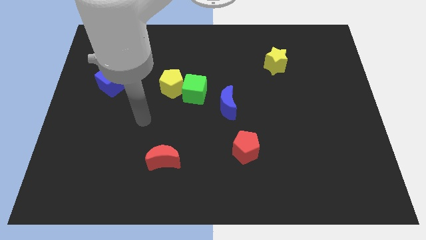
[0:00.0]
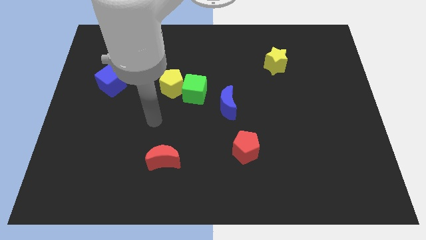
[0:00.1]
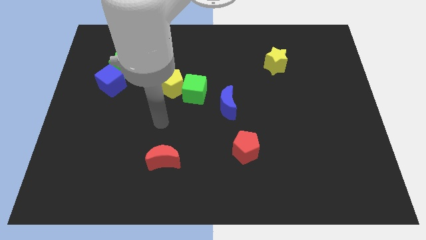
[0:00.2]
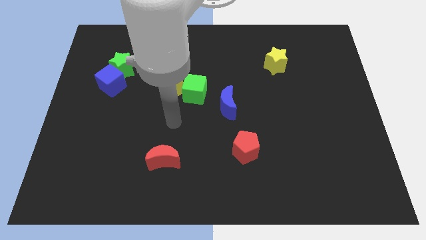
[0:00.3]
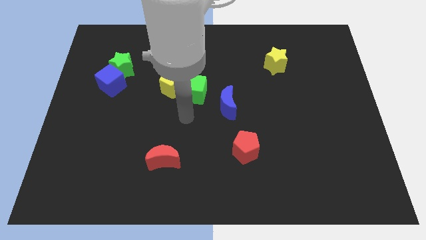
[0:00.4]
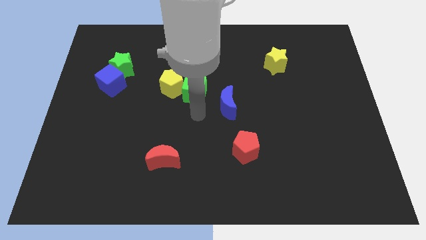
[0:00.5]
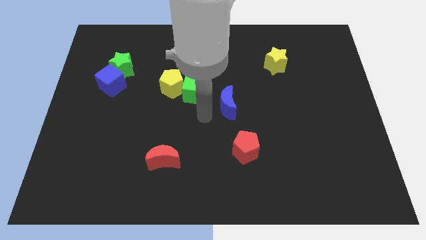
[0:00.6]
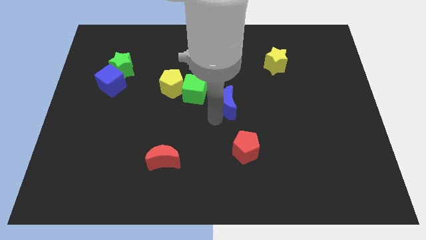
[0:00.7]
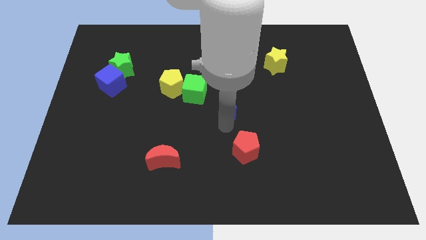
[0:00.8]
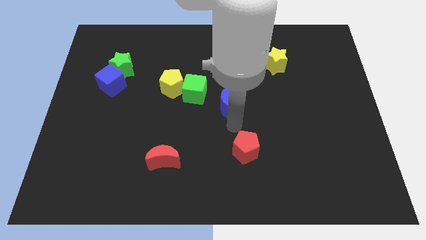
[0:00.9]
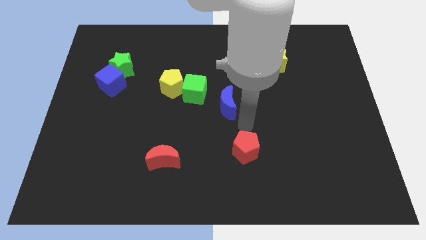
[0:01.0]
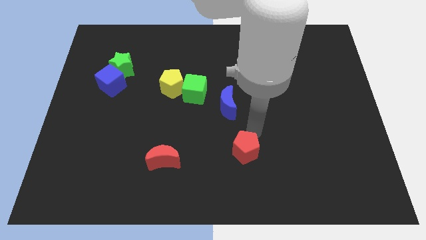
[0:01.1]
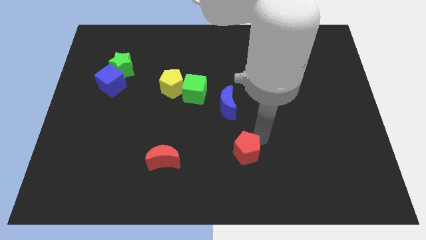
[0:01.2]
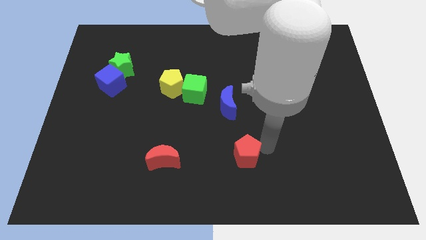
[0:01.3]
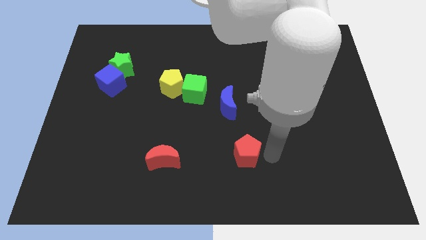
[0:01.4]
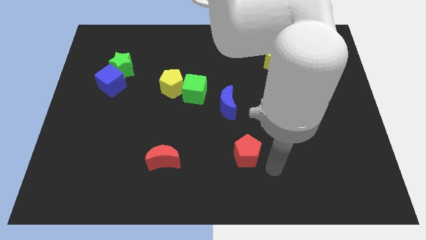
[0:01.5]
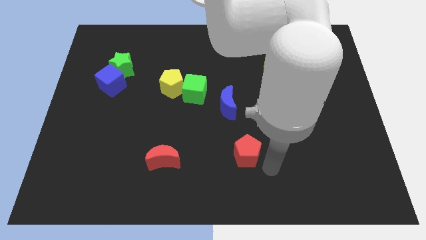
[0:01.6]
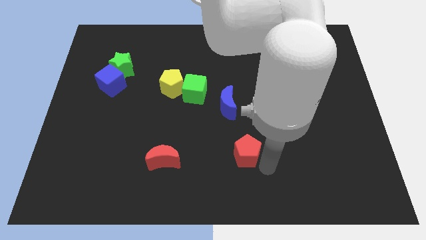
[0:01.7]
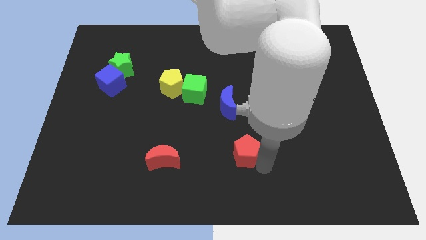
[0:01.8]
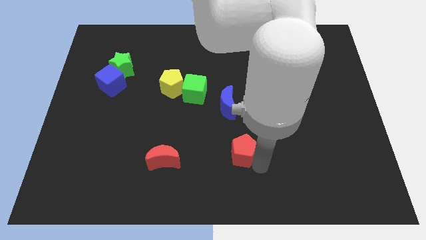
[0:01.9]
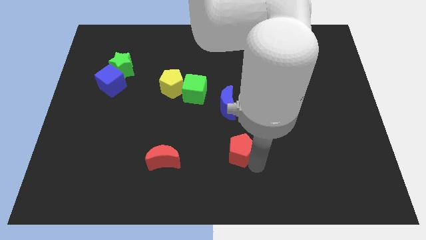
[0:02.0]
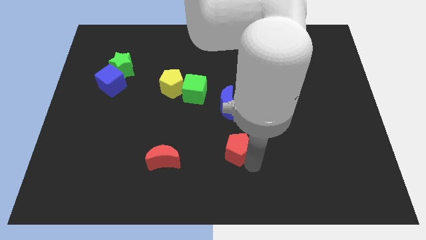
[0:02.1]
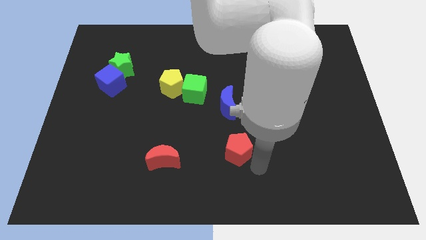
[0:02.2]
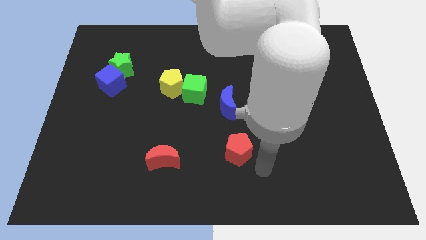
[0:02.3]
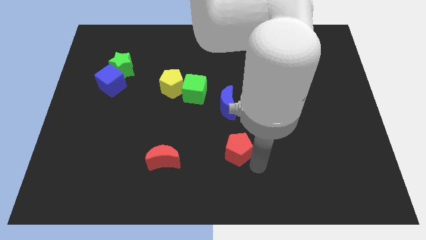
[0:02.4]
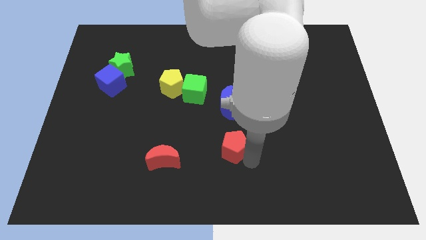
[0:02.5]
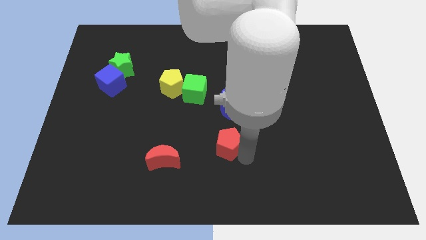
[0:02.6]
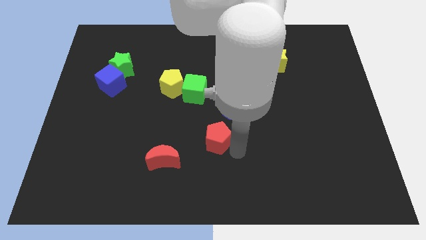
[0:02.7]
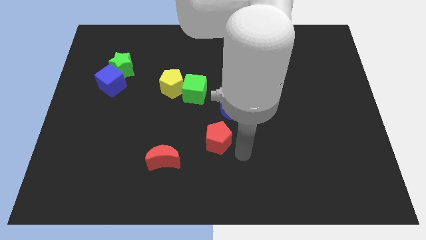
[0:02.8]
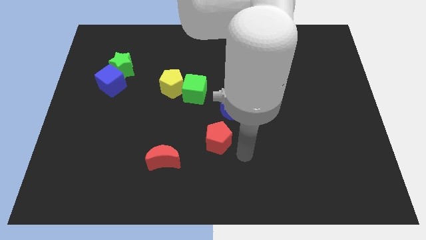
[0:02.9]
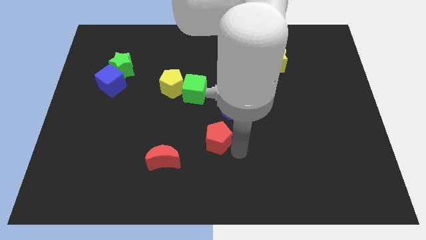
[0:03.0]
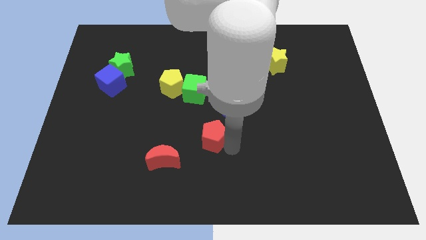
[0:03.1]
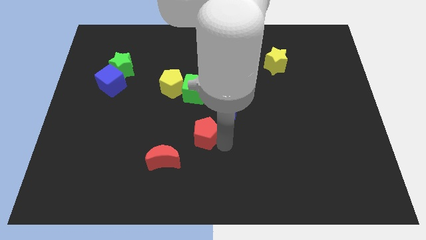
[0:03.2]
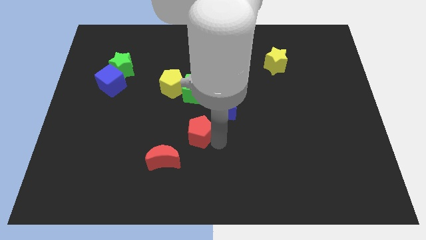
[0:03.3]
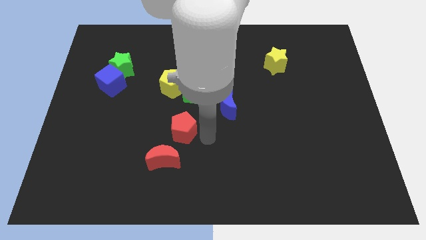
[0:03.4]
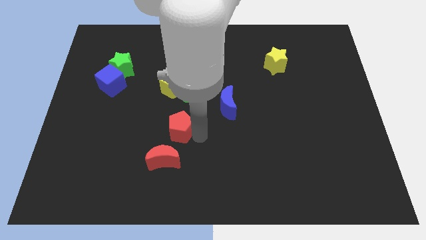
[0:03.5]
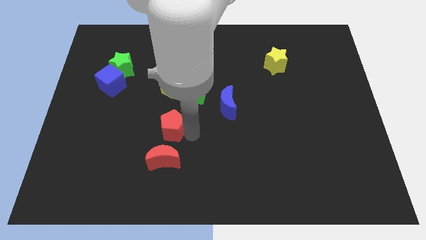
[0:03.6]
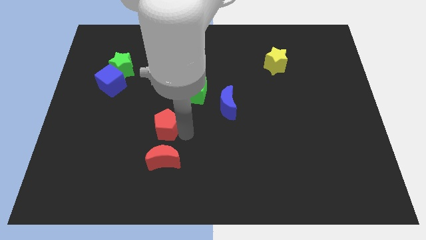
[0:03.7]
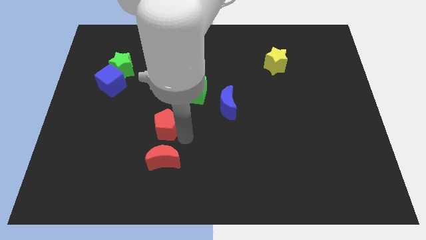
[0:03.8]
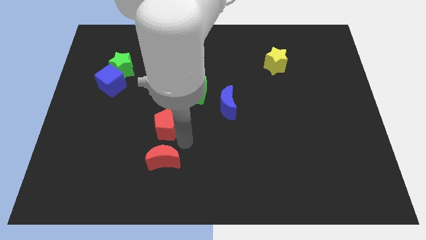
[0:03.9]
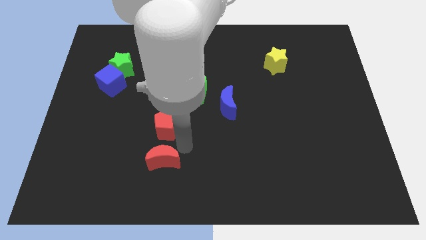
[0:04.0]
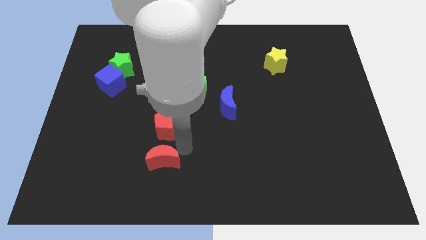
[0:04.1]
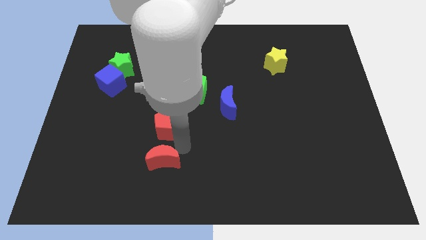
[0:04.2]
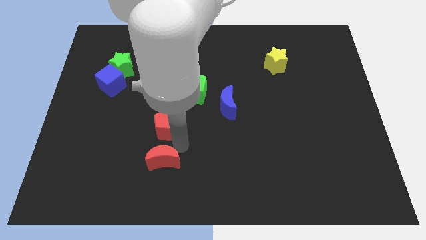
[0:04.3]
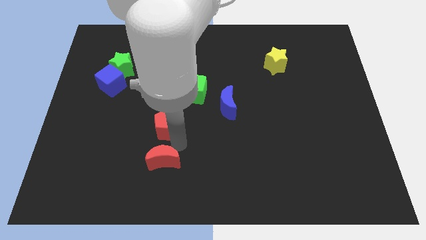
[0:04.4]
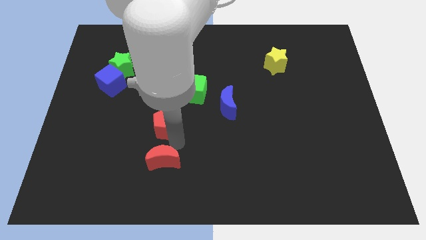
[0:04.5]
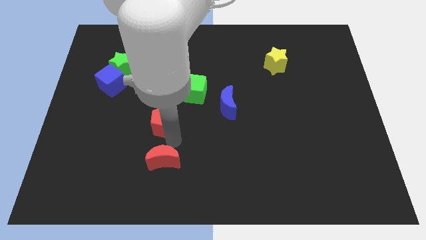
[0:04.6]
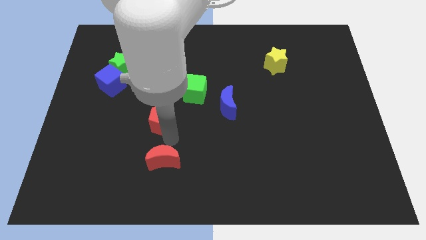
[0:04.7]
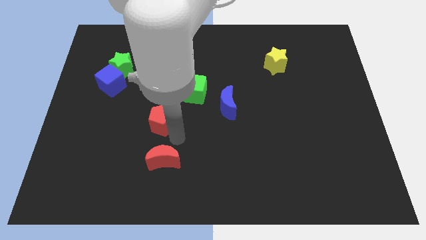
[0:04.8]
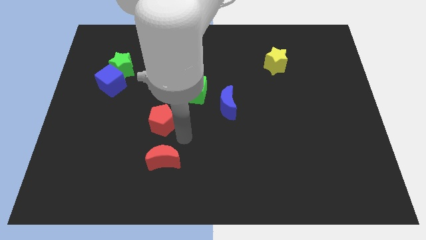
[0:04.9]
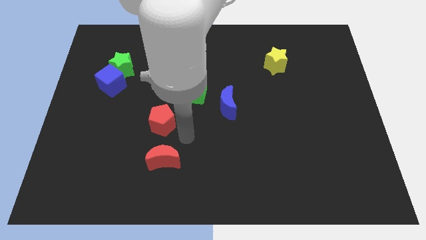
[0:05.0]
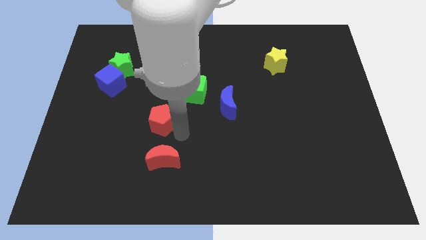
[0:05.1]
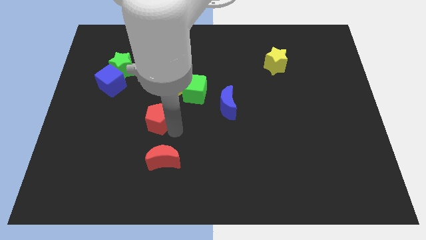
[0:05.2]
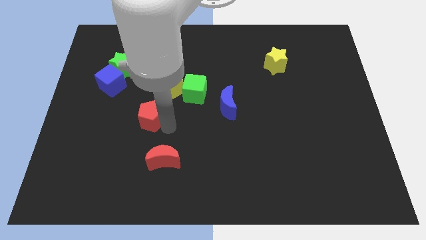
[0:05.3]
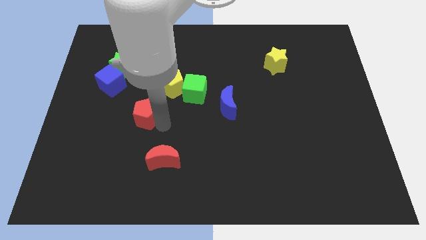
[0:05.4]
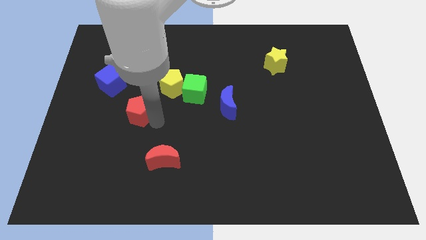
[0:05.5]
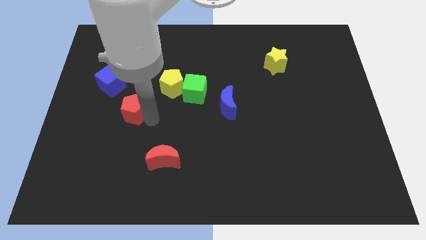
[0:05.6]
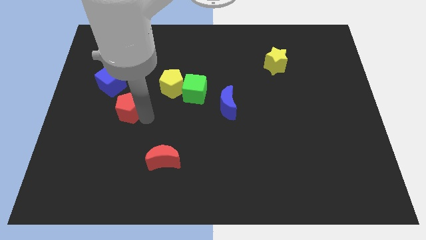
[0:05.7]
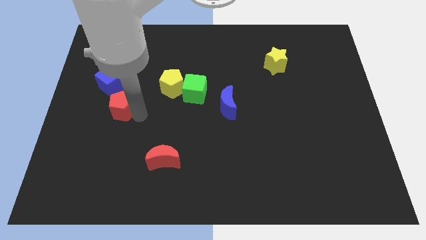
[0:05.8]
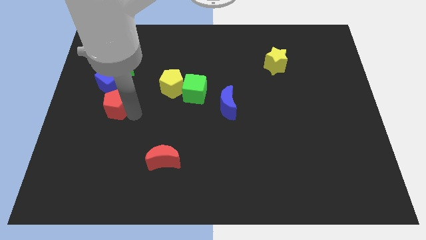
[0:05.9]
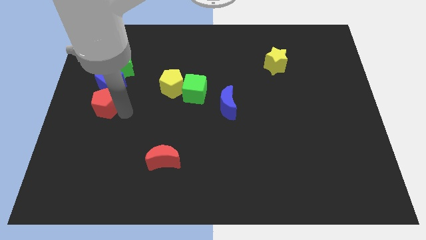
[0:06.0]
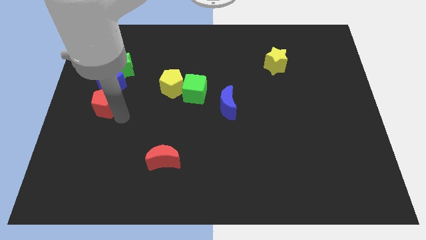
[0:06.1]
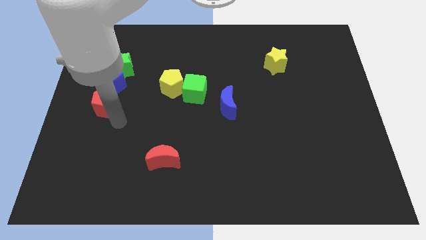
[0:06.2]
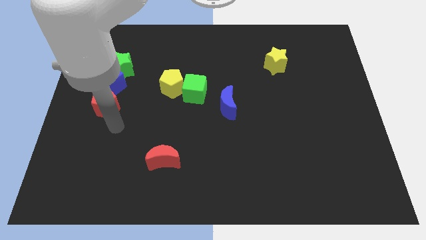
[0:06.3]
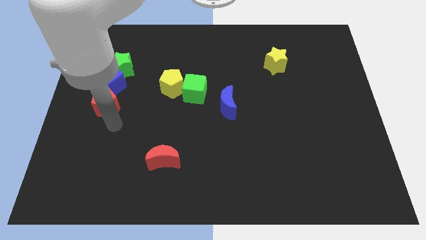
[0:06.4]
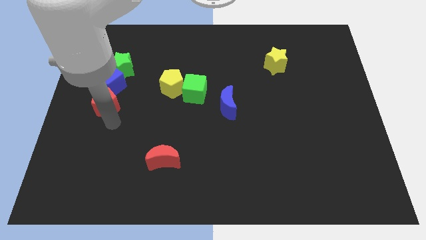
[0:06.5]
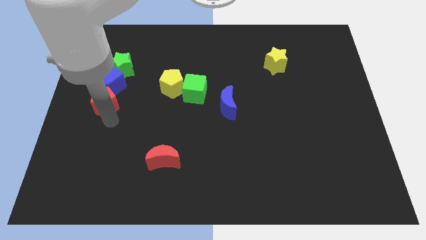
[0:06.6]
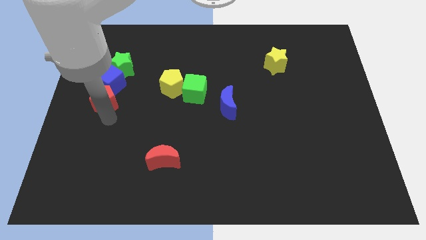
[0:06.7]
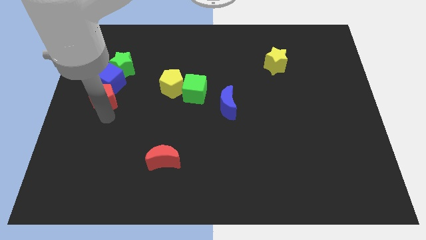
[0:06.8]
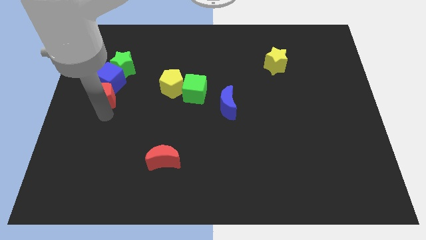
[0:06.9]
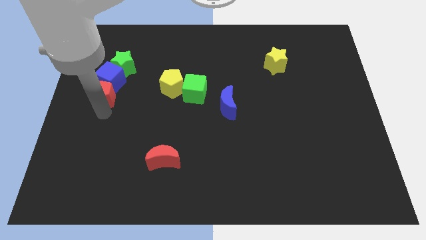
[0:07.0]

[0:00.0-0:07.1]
move the red pentagon diagonally down and to the left of the green star

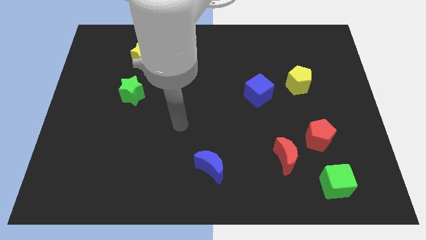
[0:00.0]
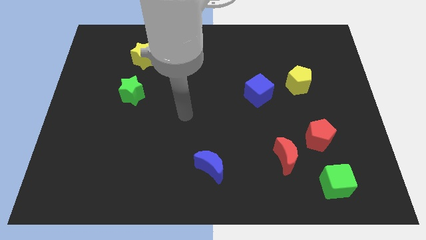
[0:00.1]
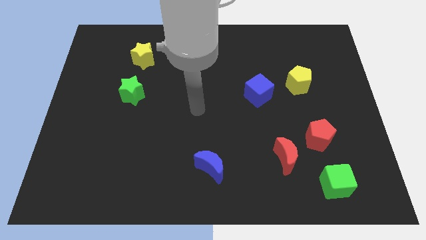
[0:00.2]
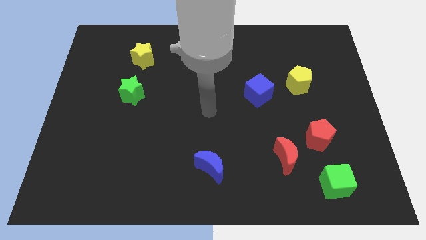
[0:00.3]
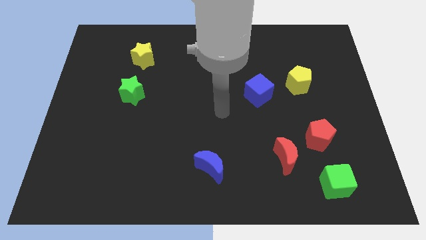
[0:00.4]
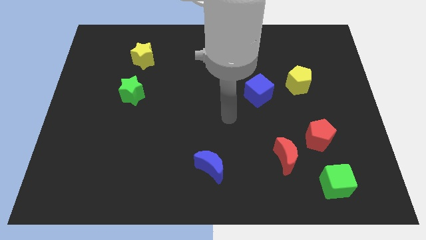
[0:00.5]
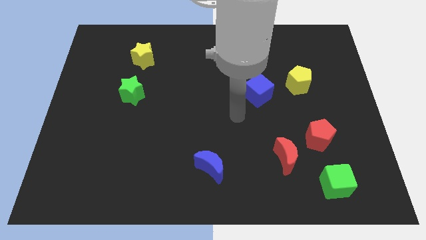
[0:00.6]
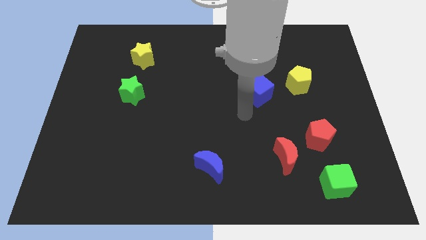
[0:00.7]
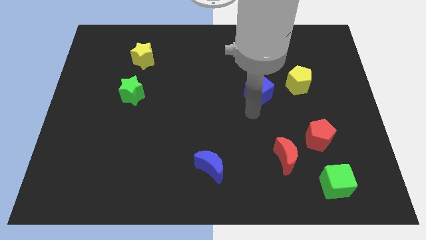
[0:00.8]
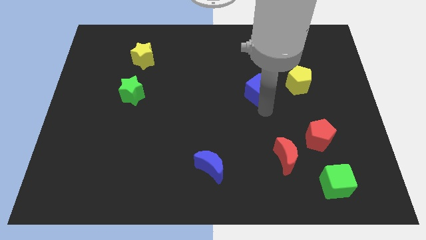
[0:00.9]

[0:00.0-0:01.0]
move the yellow pentagon to the top right of the blue cube
